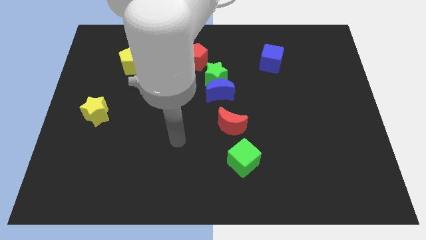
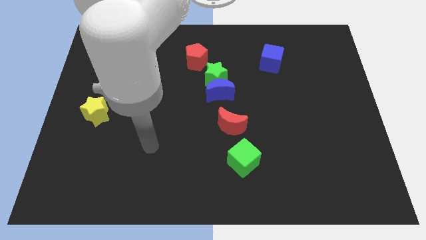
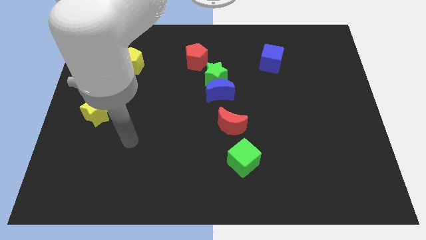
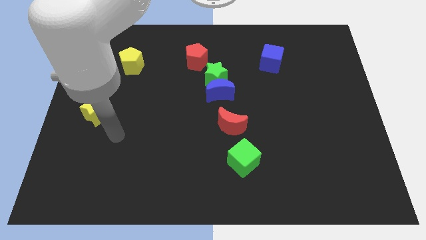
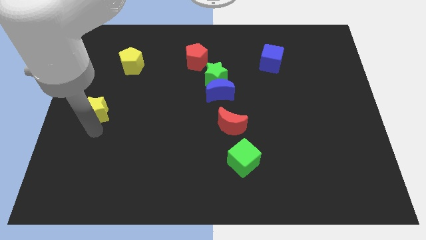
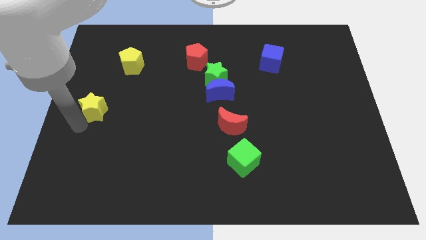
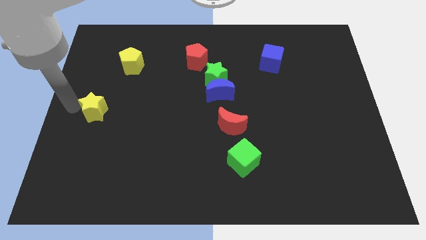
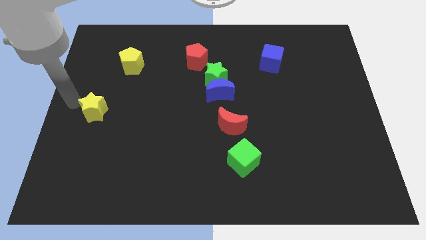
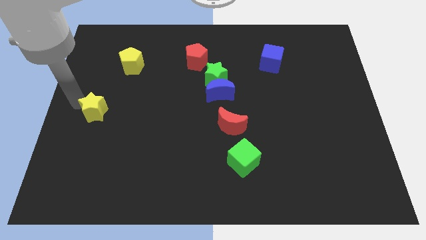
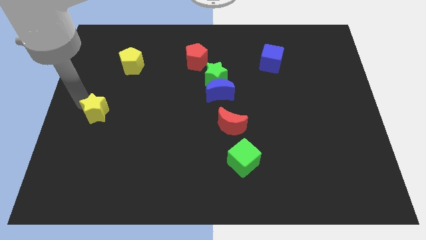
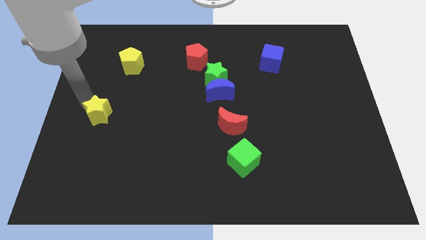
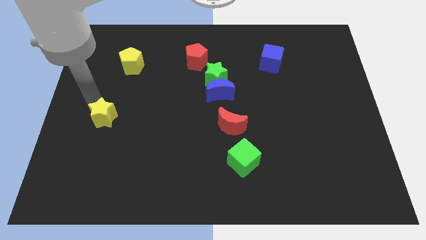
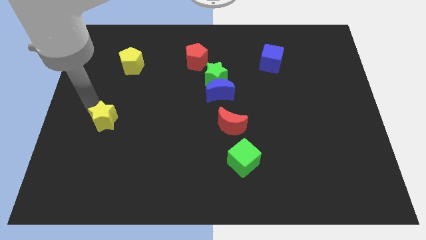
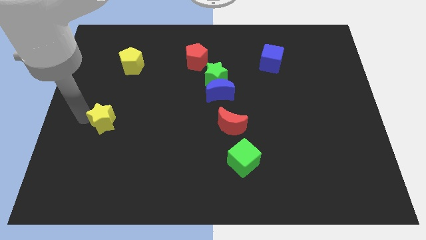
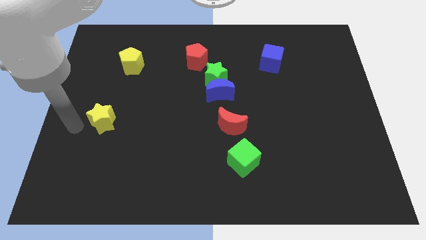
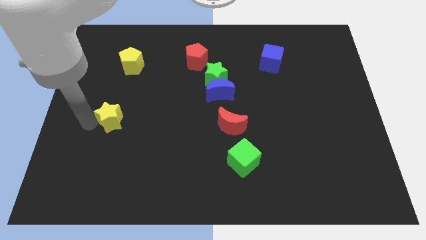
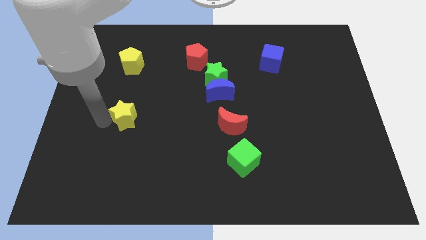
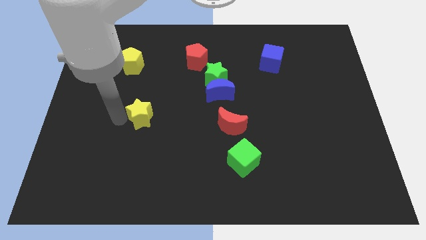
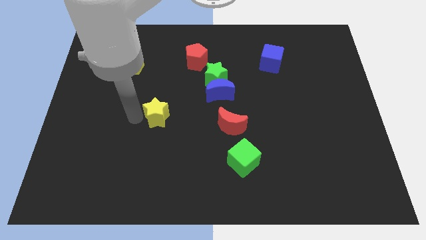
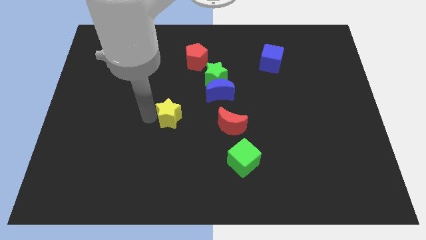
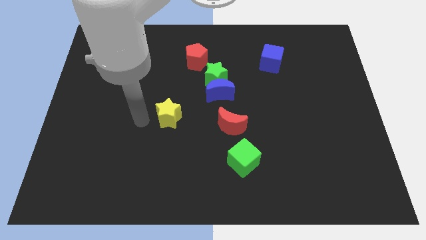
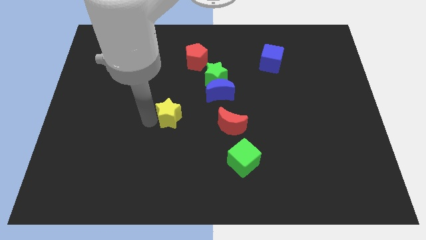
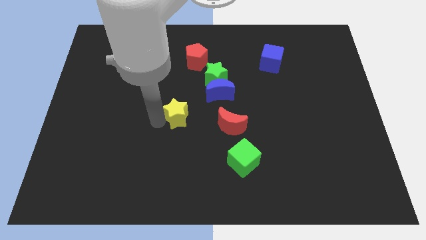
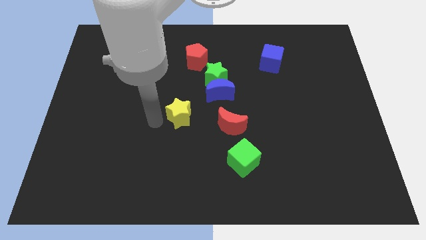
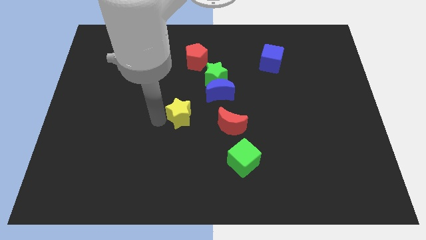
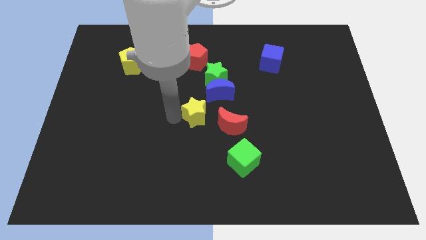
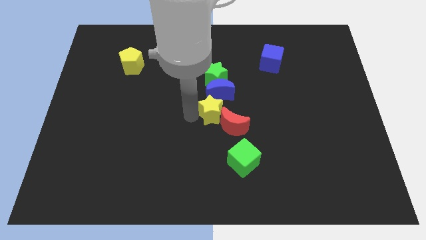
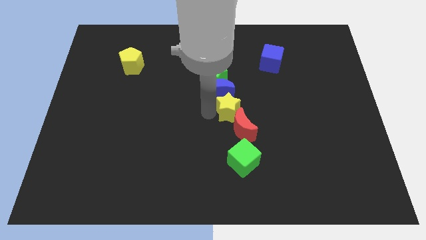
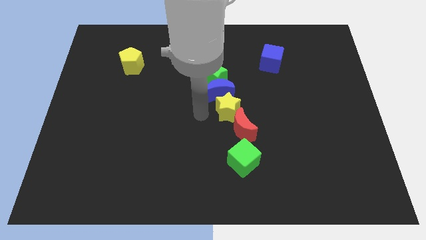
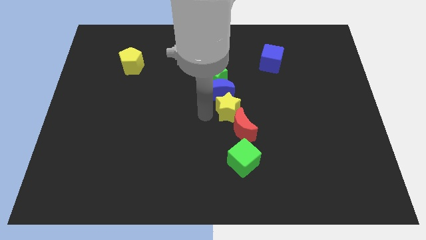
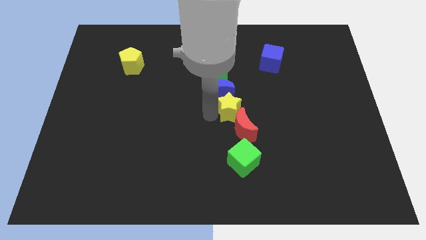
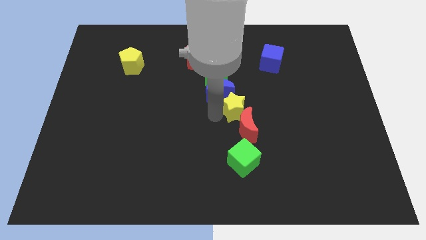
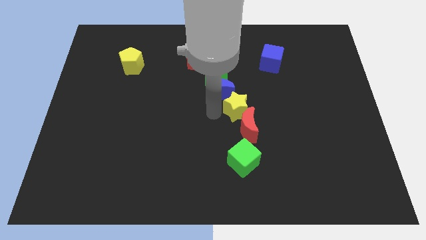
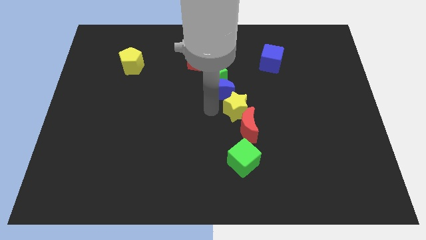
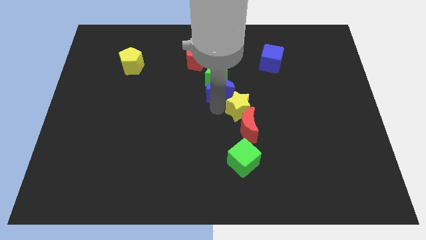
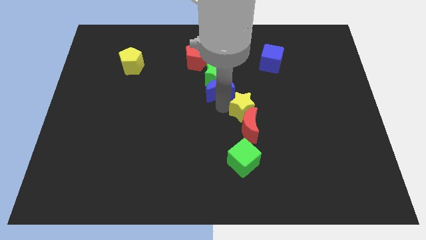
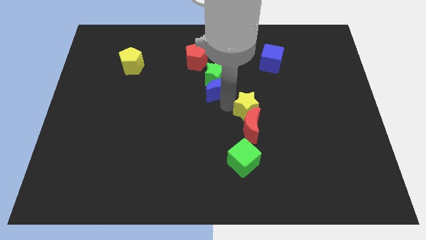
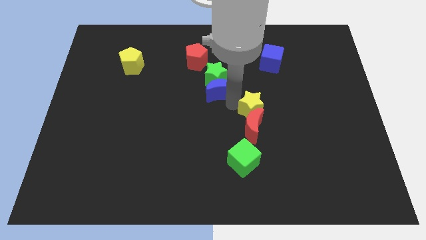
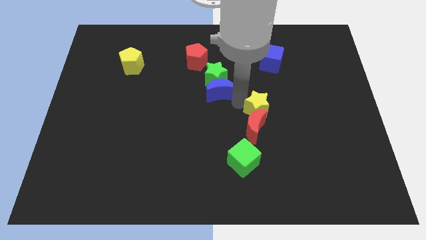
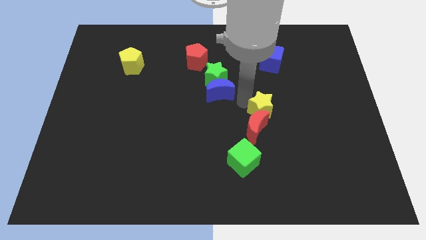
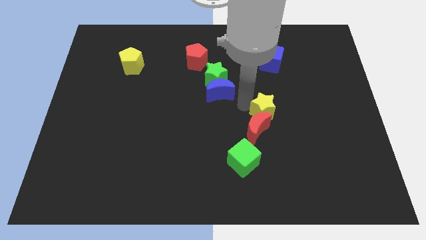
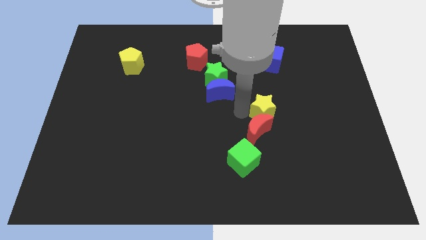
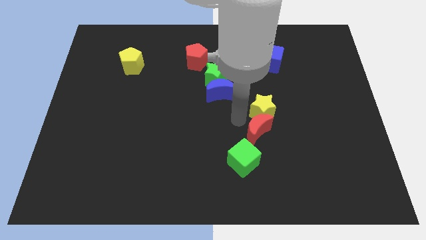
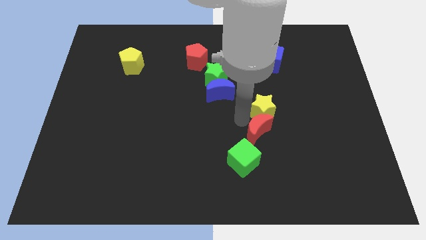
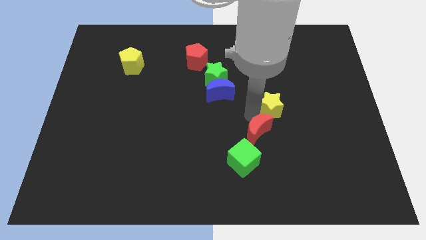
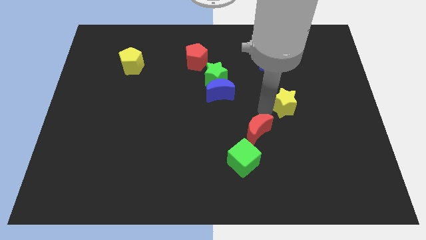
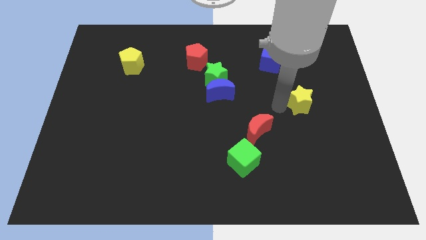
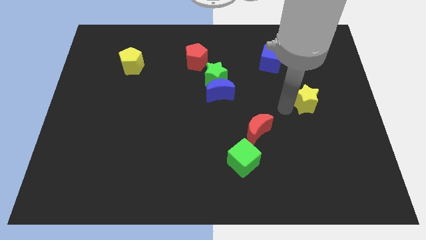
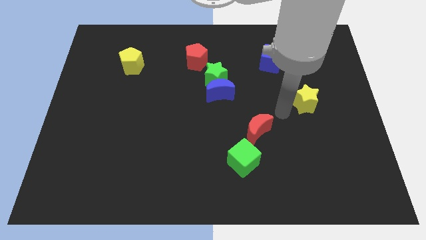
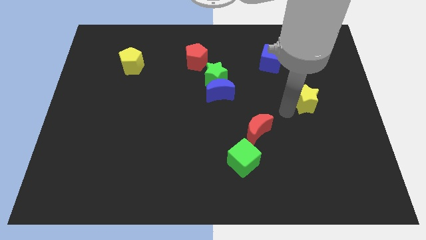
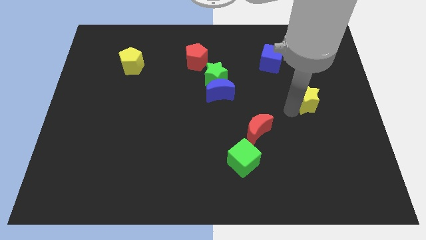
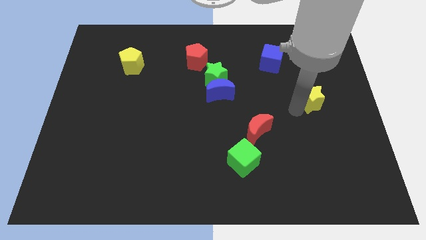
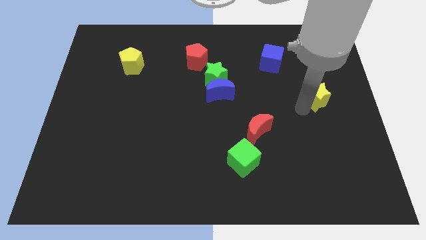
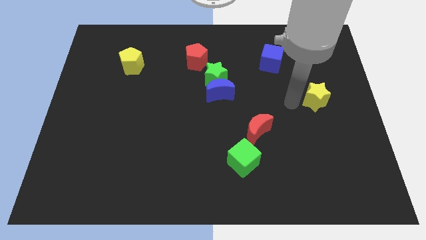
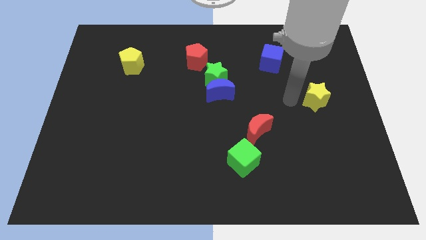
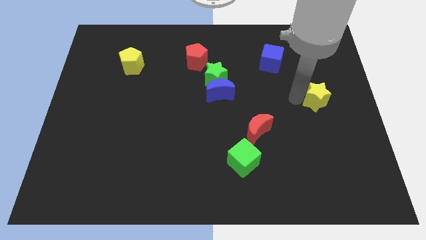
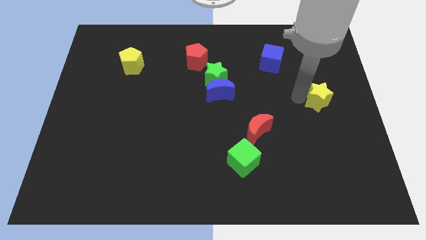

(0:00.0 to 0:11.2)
put the yellow star to the right side

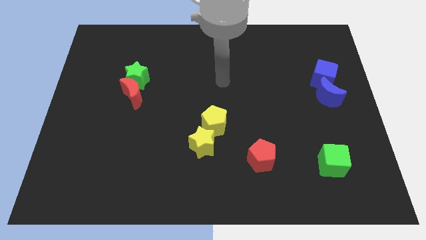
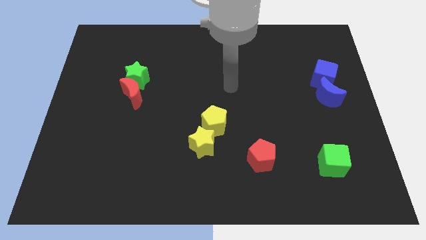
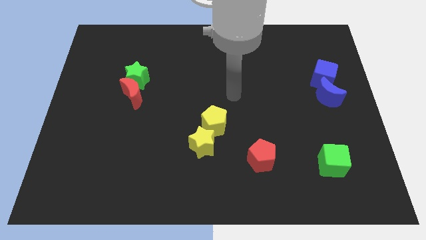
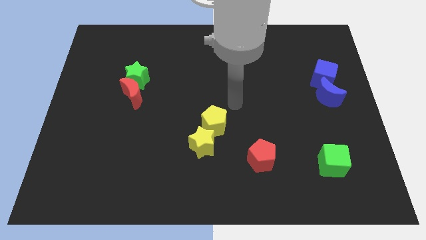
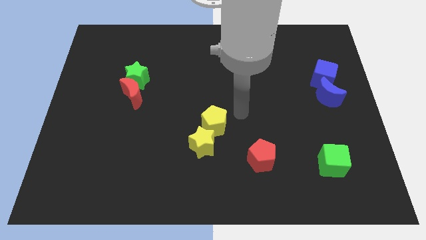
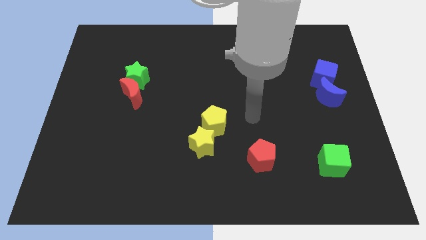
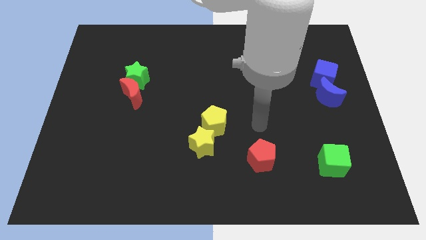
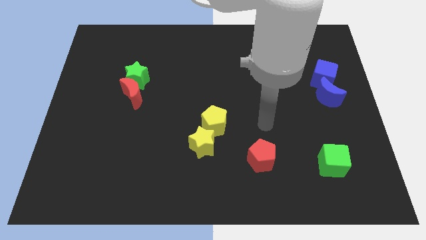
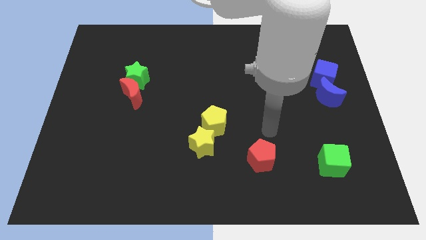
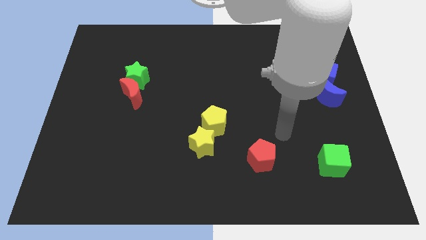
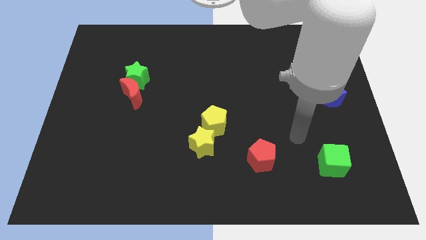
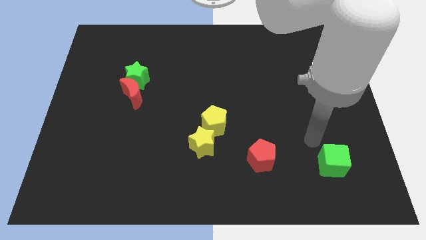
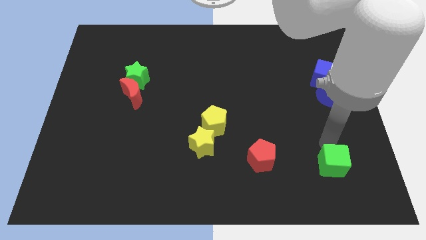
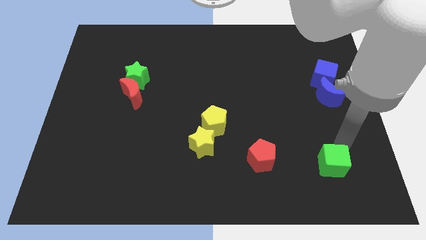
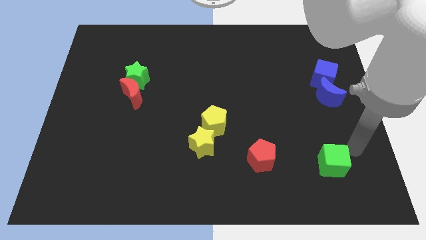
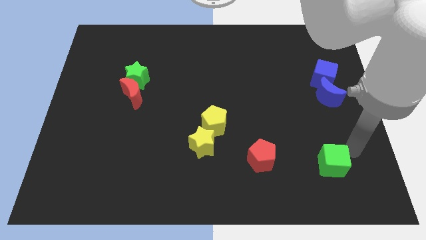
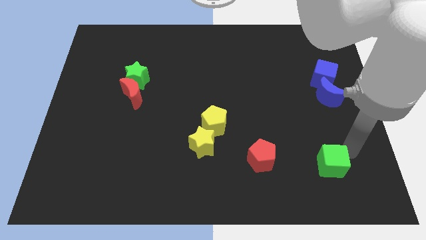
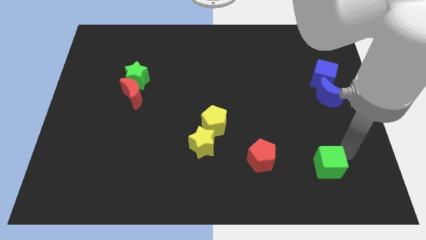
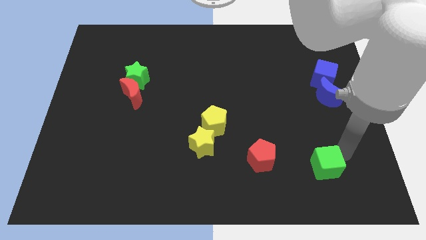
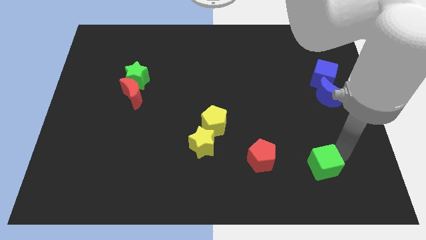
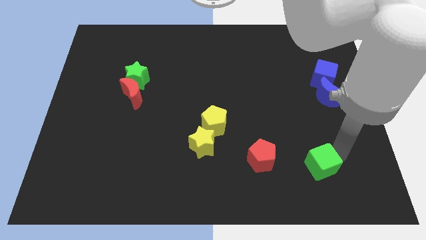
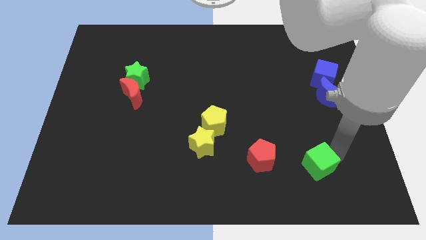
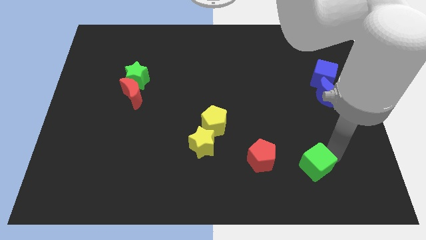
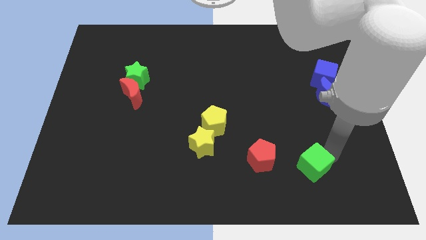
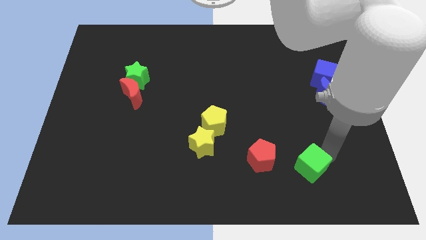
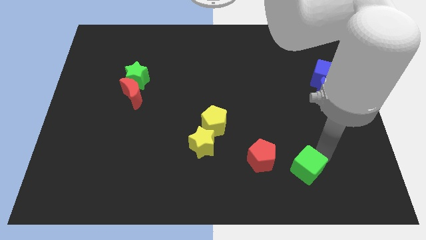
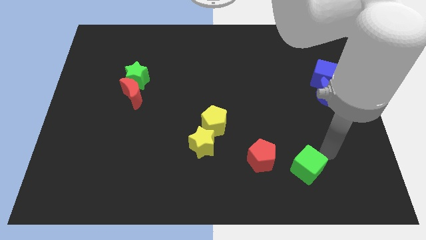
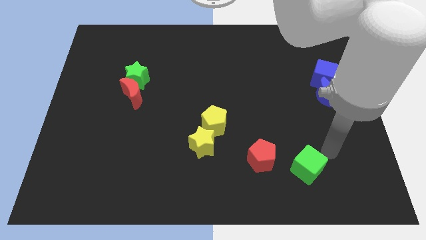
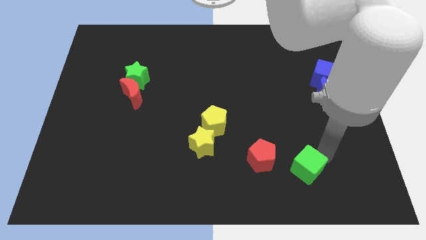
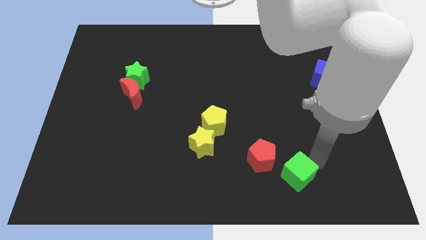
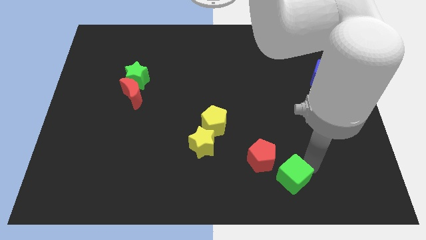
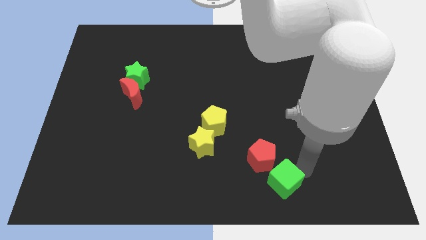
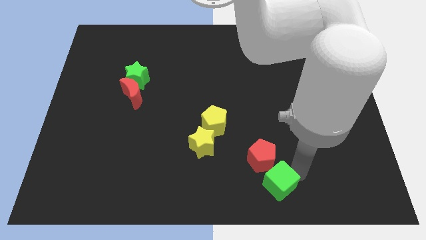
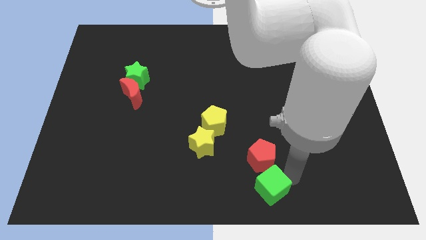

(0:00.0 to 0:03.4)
put the green cube to the bottom side
